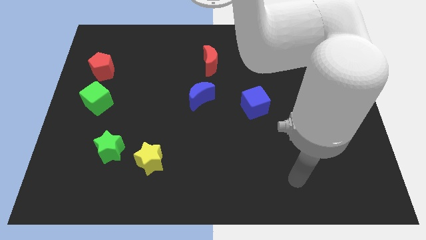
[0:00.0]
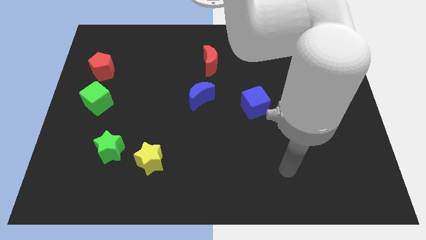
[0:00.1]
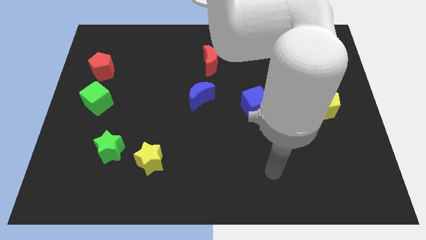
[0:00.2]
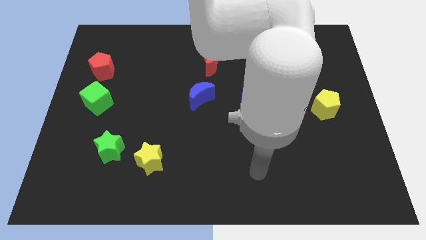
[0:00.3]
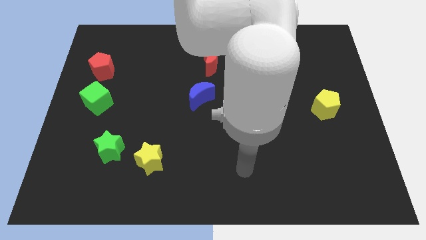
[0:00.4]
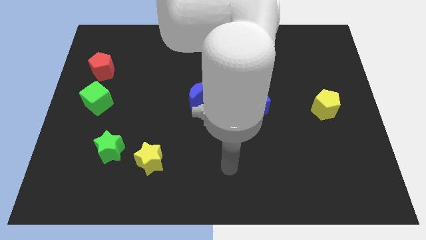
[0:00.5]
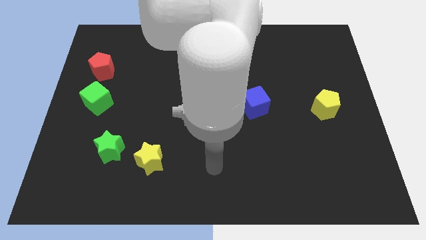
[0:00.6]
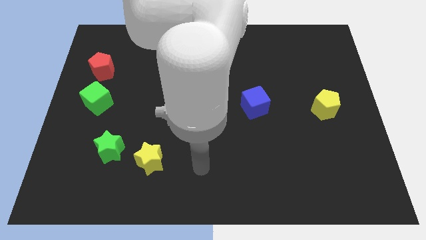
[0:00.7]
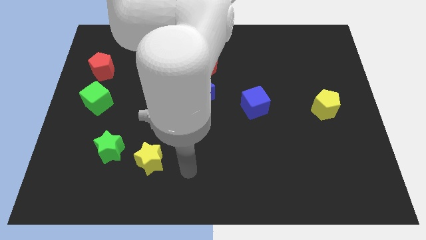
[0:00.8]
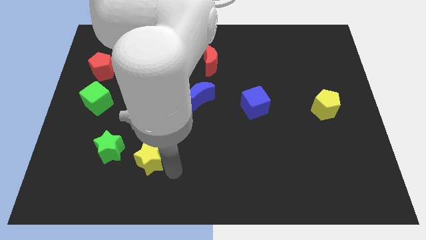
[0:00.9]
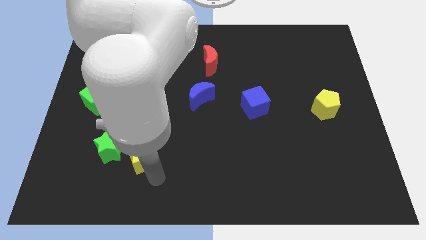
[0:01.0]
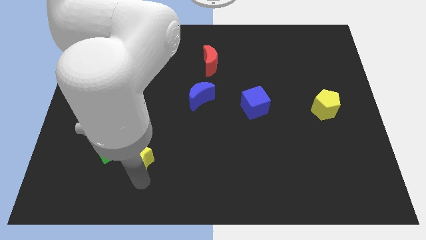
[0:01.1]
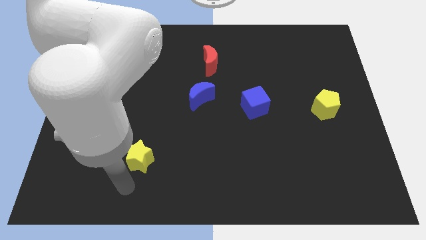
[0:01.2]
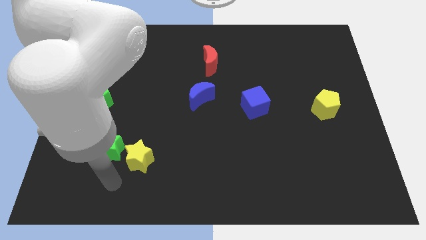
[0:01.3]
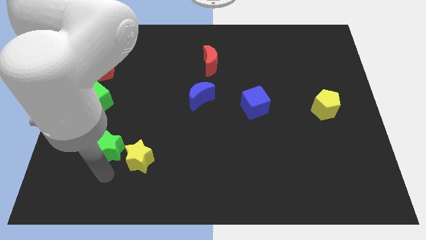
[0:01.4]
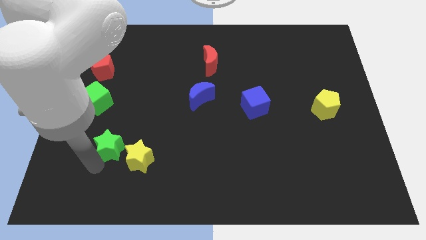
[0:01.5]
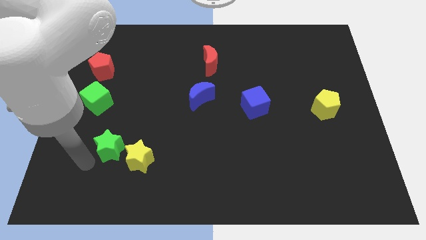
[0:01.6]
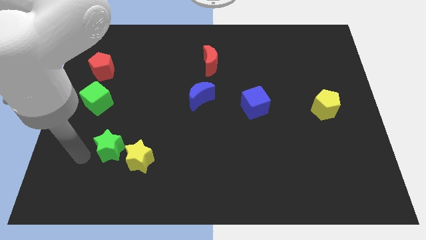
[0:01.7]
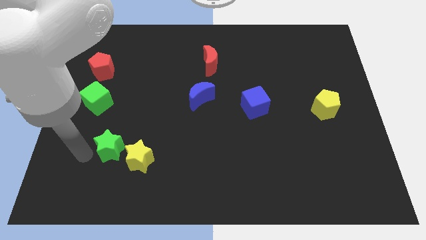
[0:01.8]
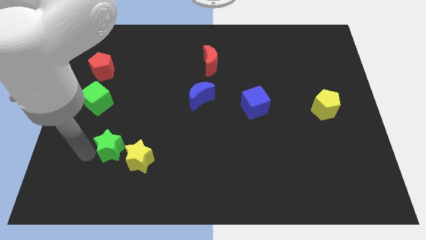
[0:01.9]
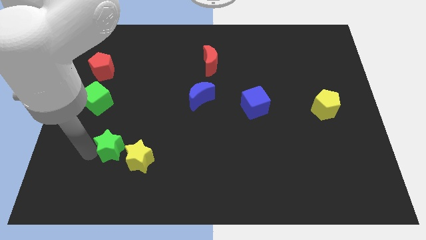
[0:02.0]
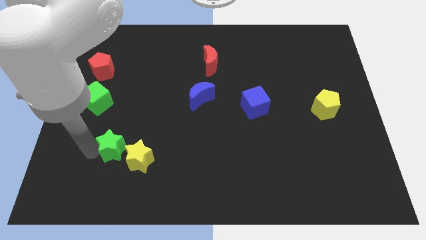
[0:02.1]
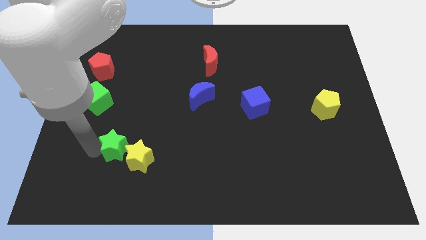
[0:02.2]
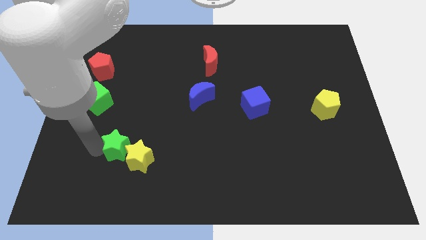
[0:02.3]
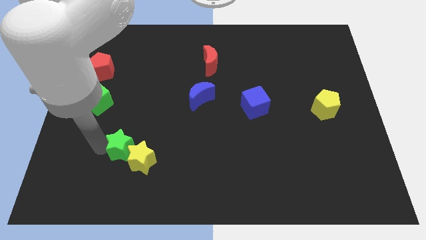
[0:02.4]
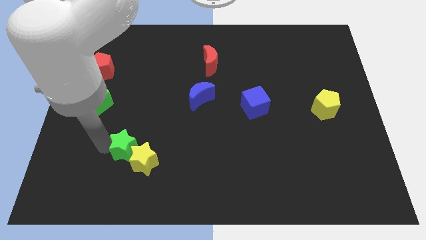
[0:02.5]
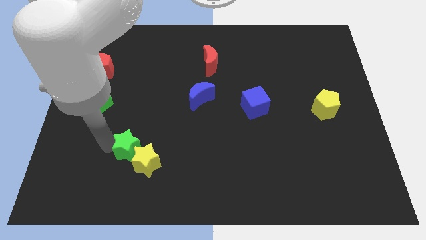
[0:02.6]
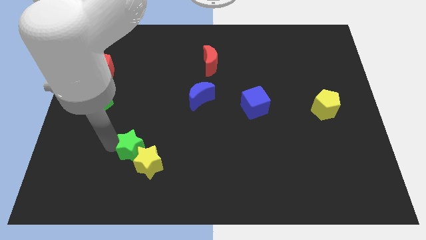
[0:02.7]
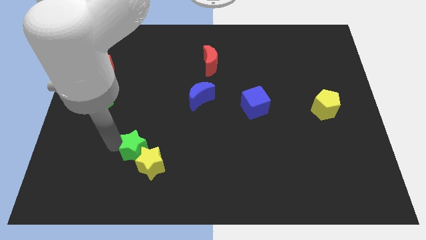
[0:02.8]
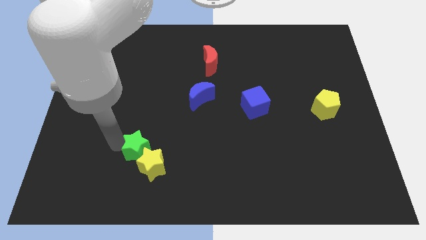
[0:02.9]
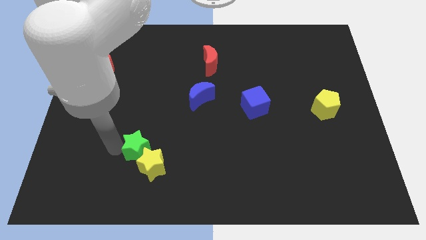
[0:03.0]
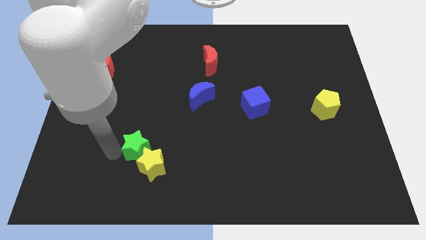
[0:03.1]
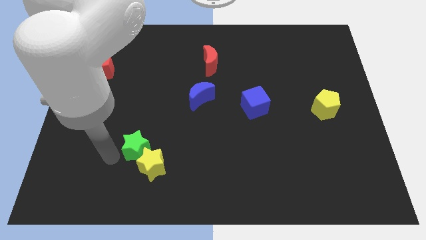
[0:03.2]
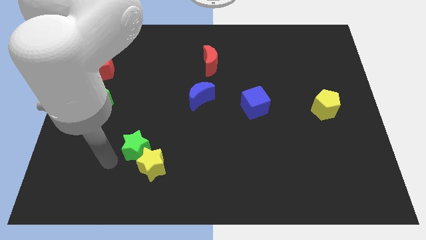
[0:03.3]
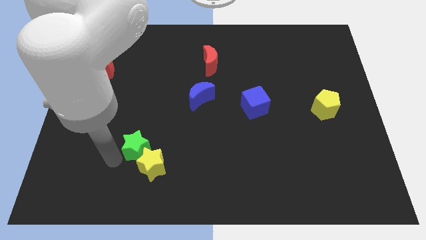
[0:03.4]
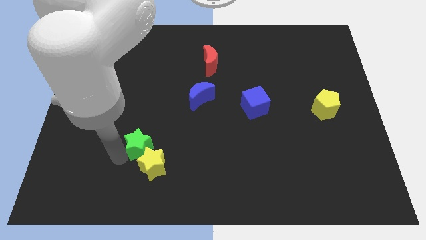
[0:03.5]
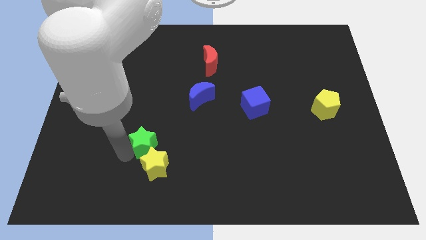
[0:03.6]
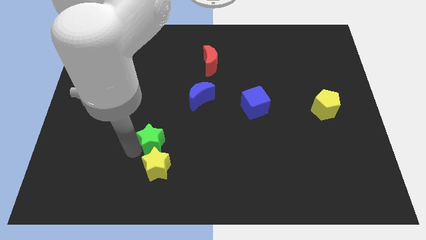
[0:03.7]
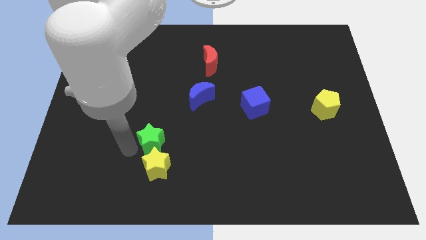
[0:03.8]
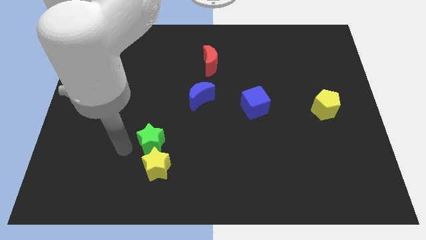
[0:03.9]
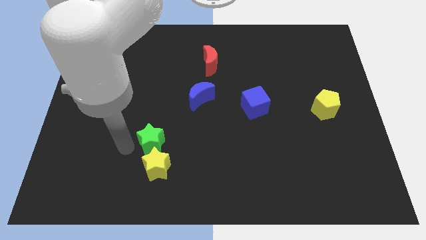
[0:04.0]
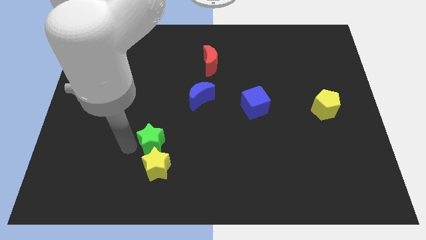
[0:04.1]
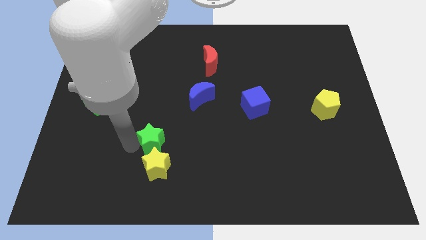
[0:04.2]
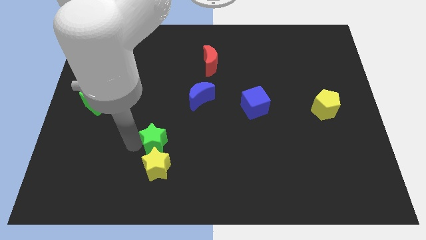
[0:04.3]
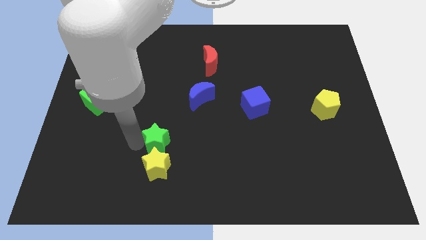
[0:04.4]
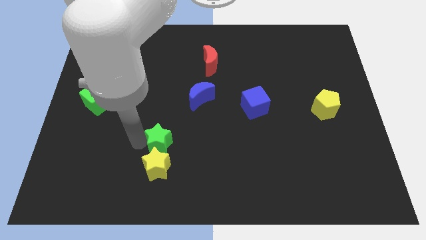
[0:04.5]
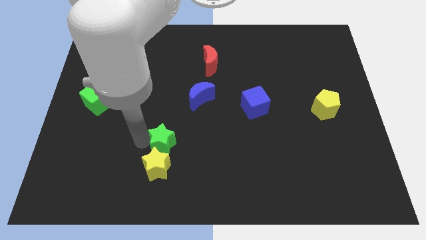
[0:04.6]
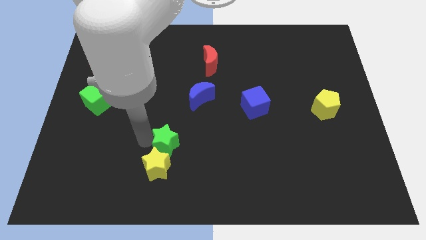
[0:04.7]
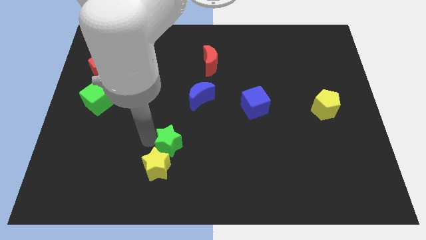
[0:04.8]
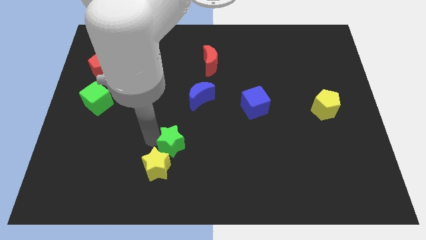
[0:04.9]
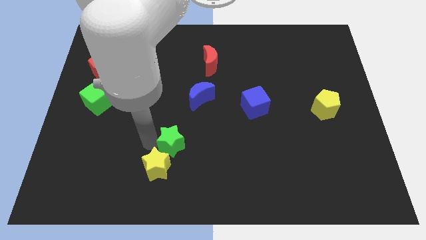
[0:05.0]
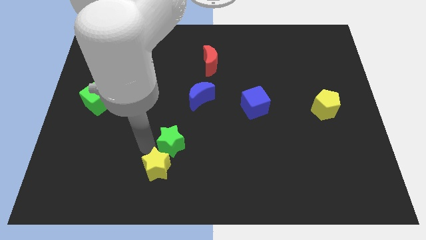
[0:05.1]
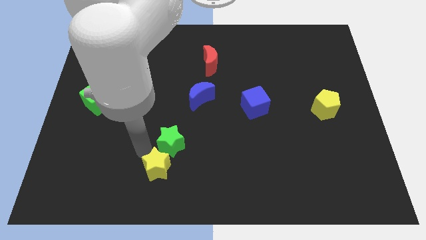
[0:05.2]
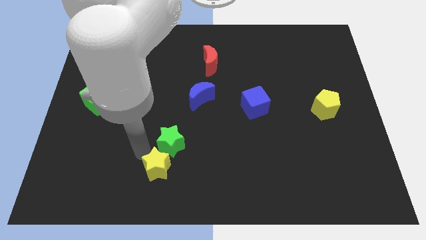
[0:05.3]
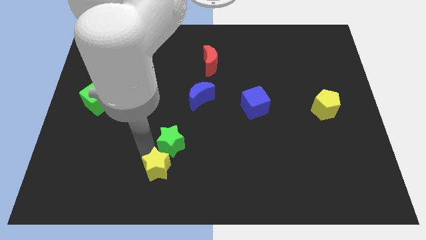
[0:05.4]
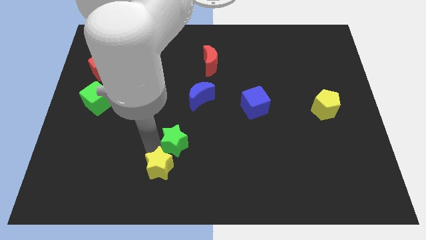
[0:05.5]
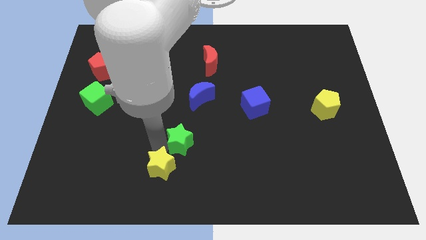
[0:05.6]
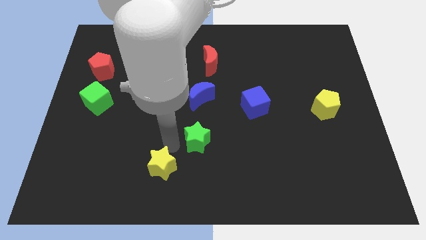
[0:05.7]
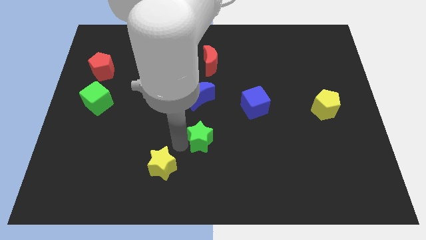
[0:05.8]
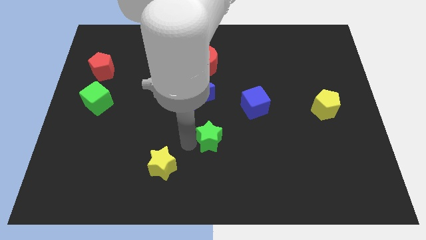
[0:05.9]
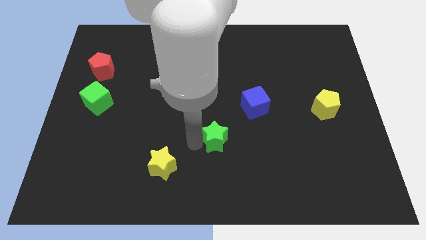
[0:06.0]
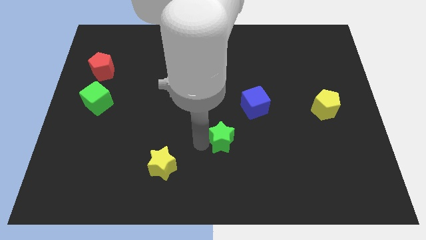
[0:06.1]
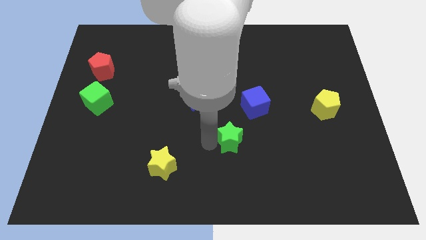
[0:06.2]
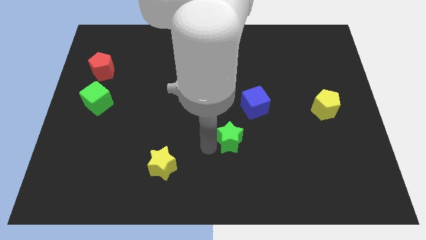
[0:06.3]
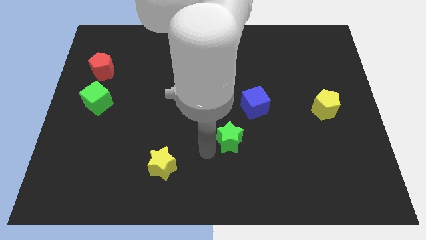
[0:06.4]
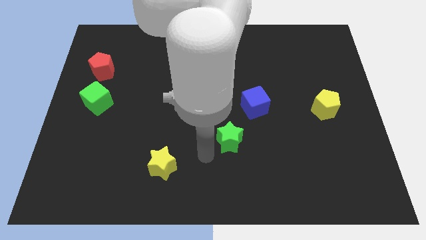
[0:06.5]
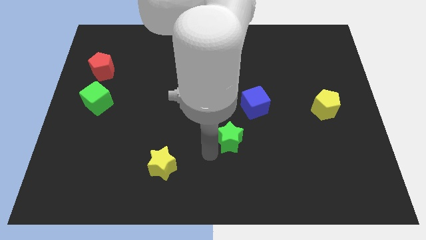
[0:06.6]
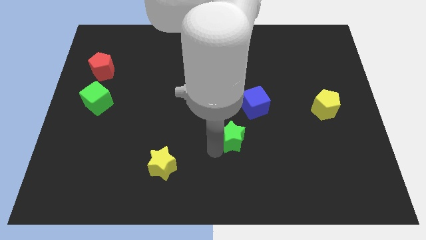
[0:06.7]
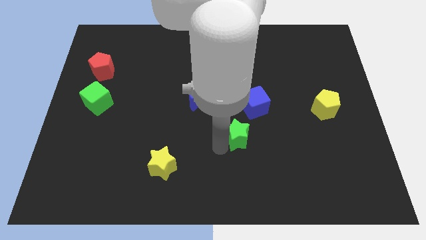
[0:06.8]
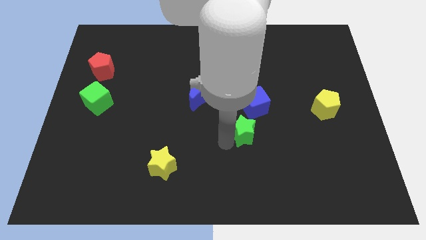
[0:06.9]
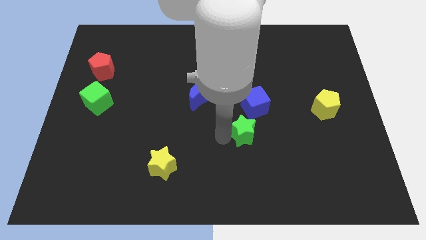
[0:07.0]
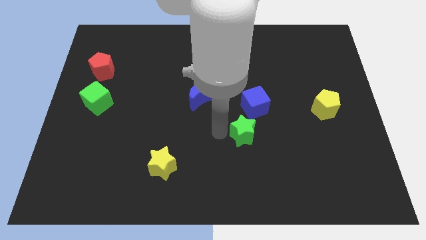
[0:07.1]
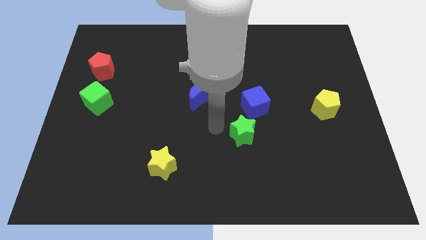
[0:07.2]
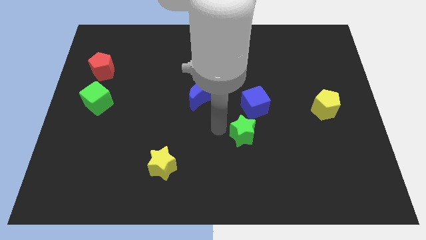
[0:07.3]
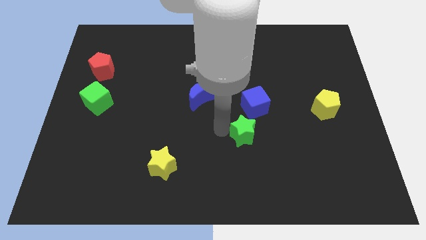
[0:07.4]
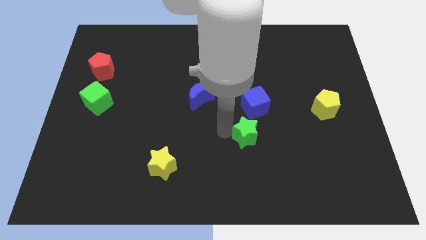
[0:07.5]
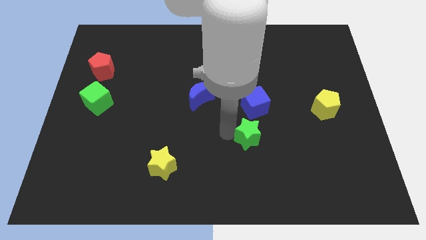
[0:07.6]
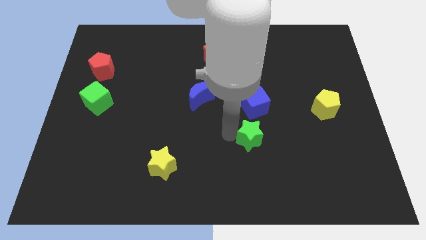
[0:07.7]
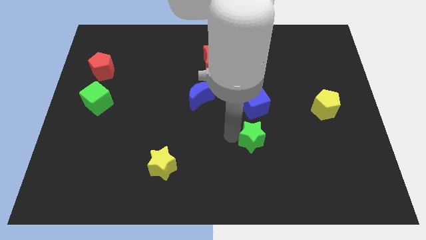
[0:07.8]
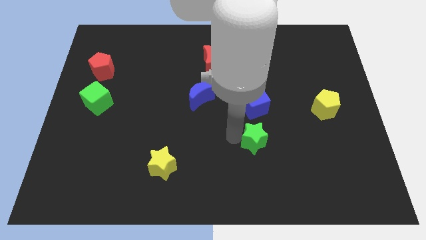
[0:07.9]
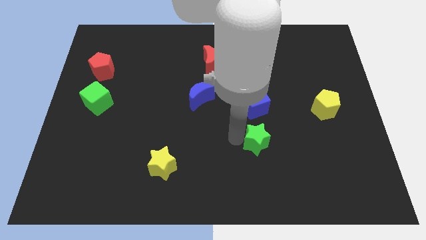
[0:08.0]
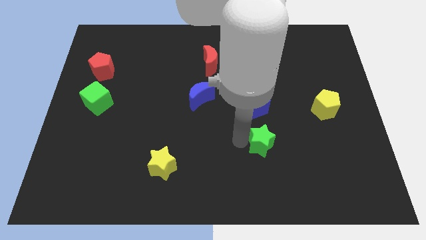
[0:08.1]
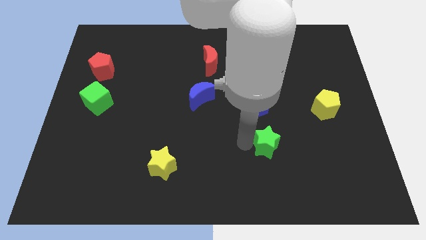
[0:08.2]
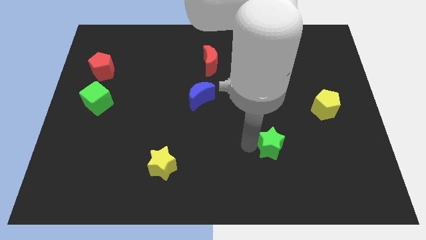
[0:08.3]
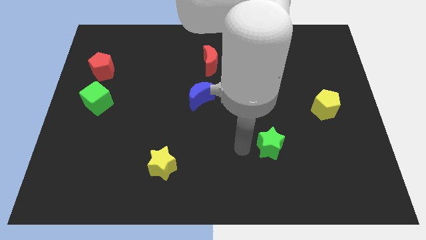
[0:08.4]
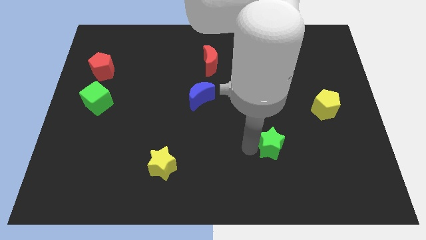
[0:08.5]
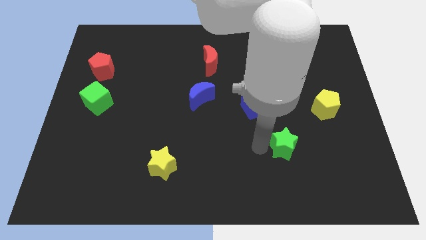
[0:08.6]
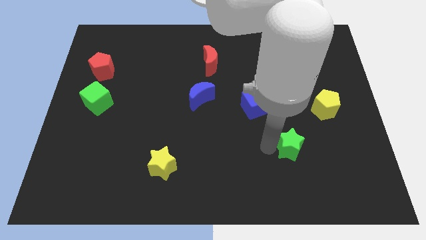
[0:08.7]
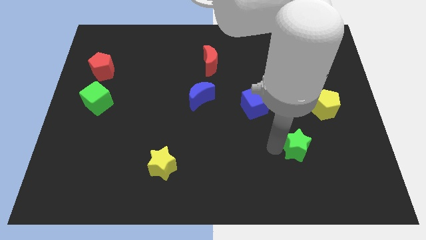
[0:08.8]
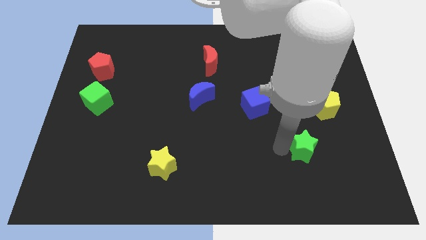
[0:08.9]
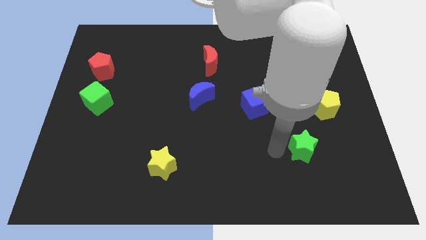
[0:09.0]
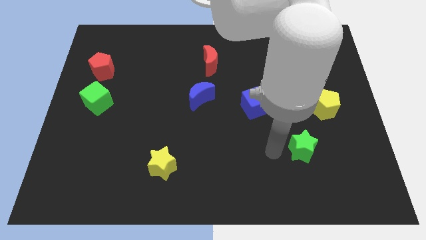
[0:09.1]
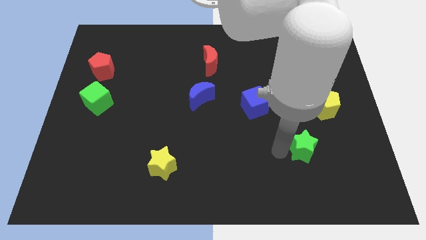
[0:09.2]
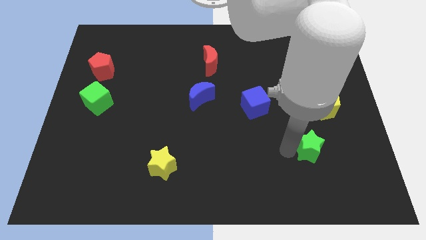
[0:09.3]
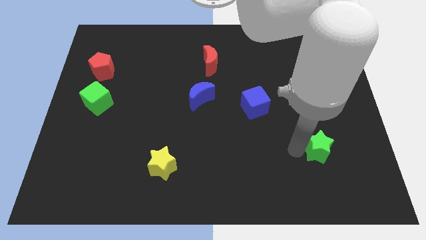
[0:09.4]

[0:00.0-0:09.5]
slide the green star below the yellow pentagon
